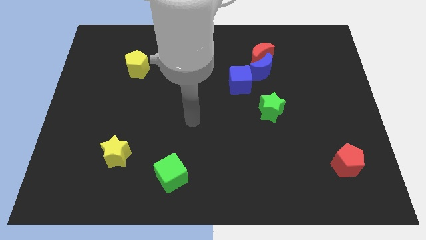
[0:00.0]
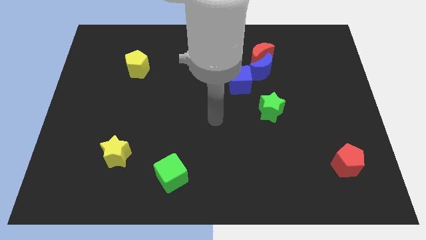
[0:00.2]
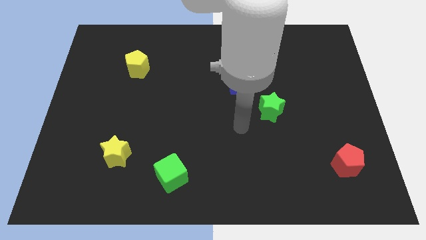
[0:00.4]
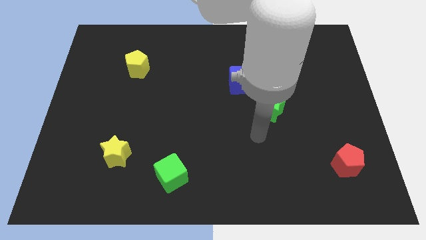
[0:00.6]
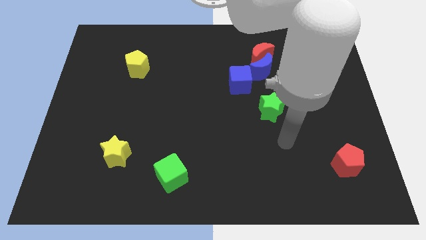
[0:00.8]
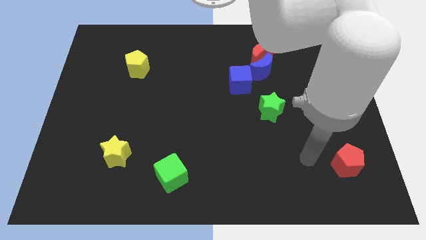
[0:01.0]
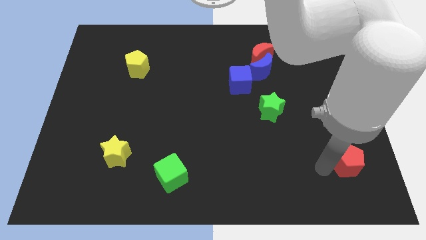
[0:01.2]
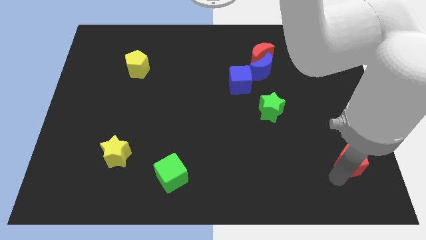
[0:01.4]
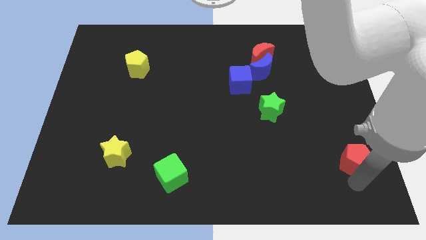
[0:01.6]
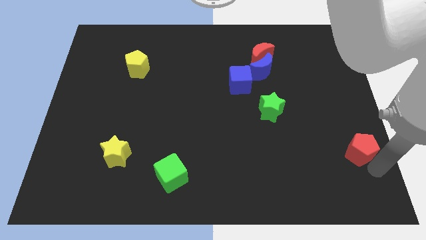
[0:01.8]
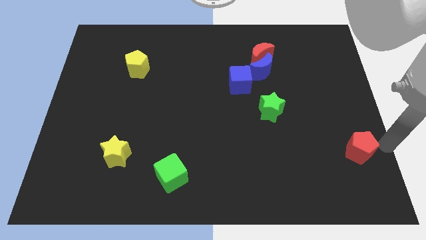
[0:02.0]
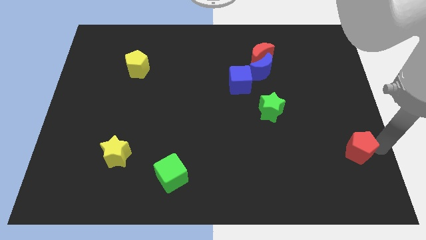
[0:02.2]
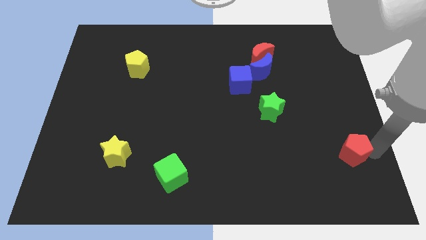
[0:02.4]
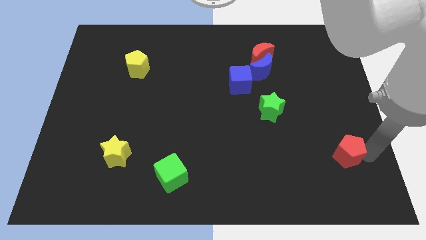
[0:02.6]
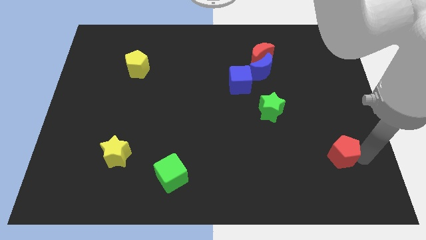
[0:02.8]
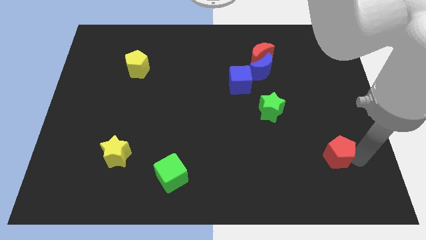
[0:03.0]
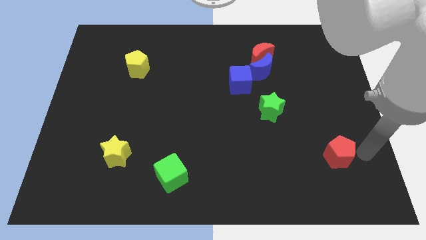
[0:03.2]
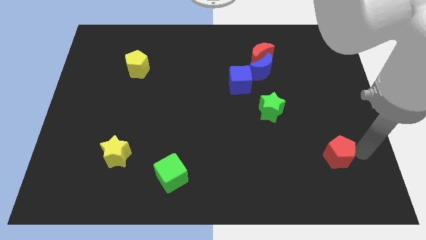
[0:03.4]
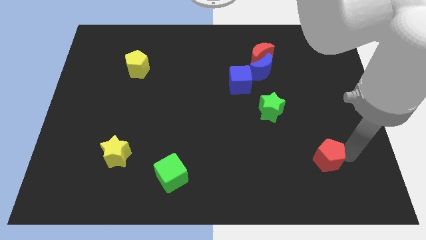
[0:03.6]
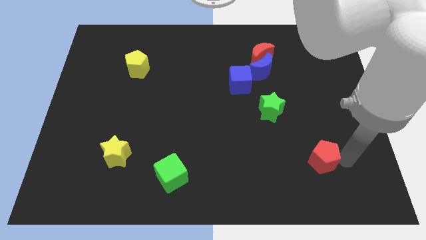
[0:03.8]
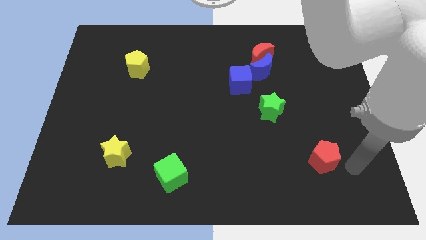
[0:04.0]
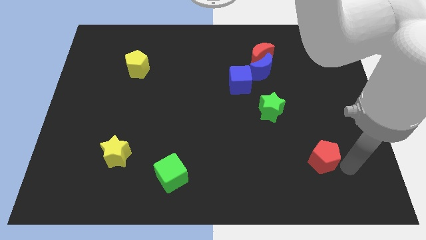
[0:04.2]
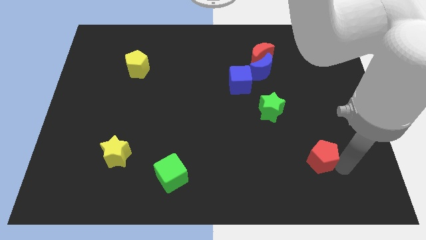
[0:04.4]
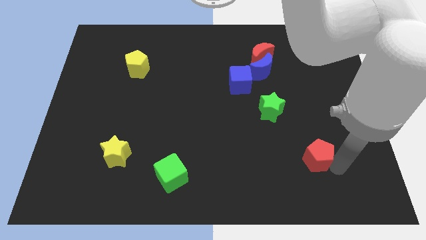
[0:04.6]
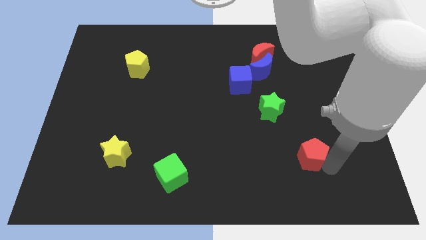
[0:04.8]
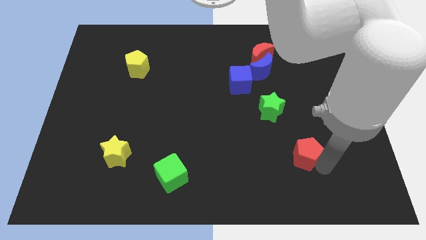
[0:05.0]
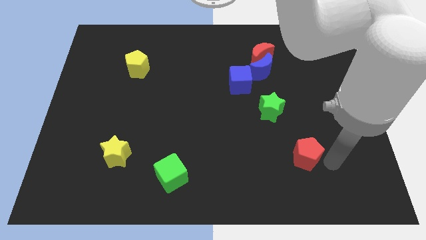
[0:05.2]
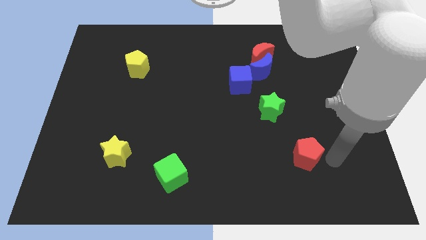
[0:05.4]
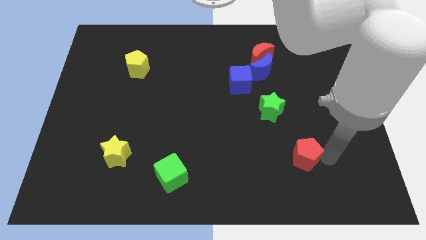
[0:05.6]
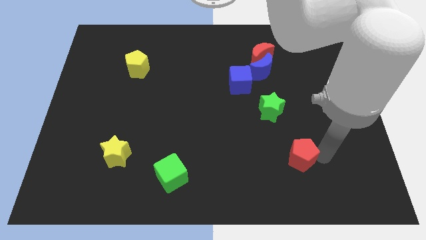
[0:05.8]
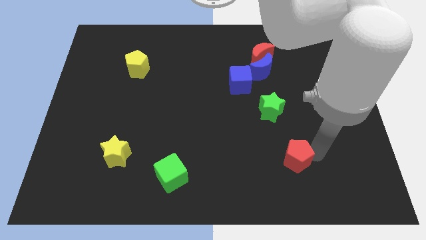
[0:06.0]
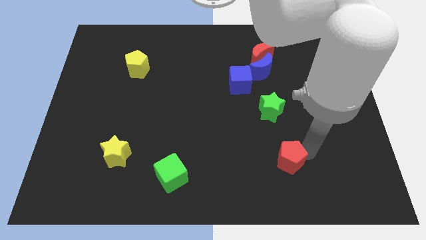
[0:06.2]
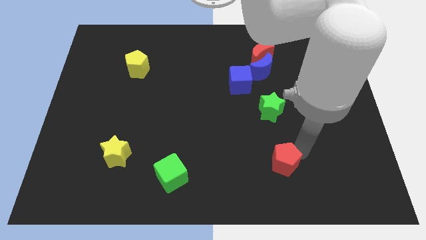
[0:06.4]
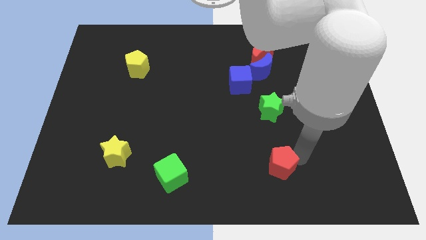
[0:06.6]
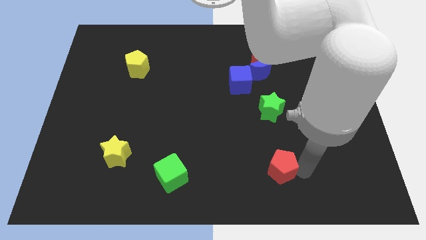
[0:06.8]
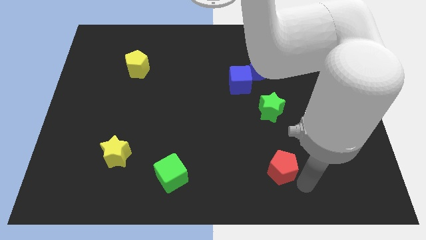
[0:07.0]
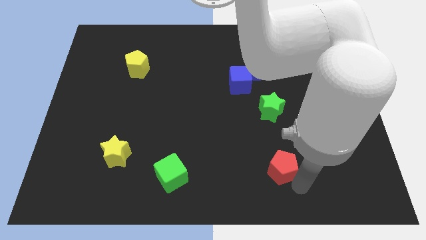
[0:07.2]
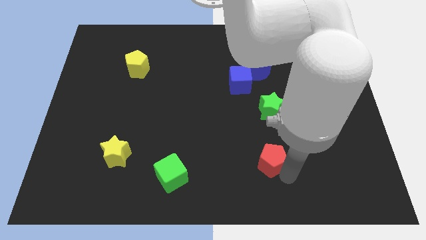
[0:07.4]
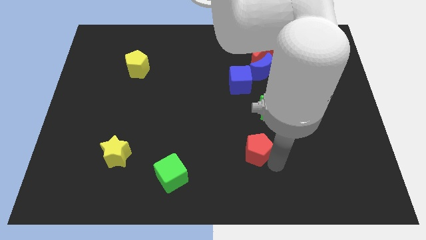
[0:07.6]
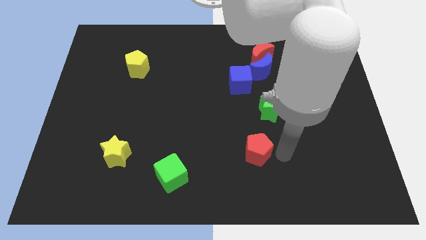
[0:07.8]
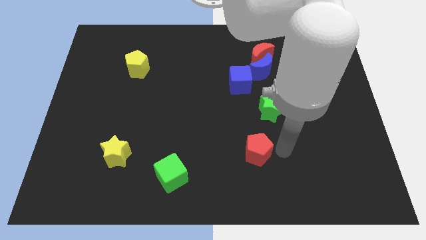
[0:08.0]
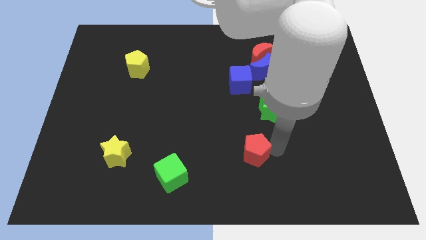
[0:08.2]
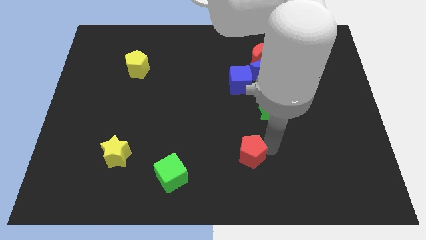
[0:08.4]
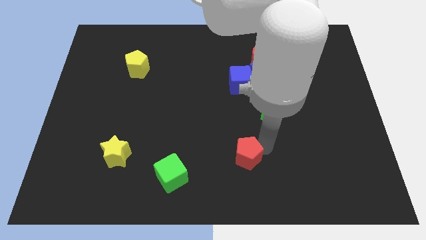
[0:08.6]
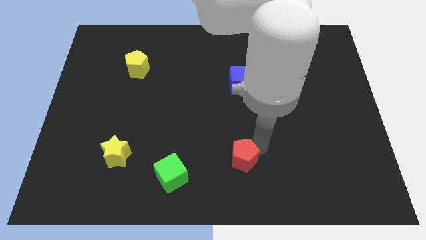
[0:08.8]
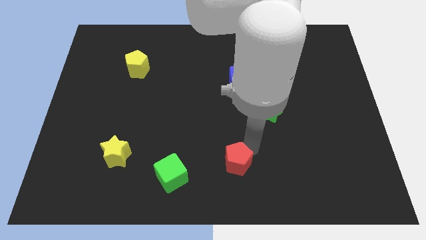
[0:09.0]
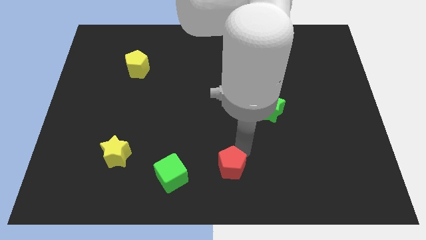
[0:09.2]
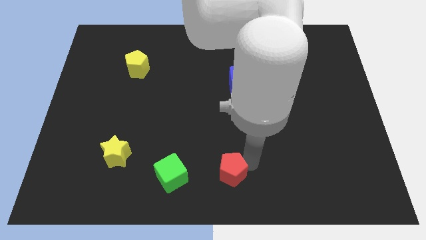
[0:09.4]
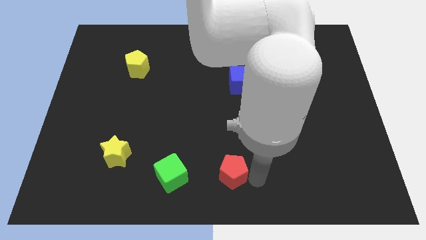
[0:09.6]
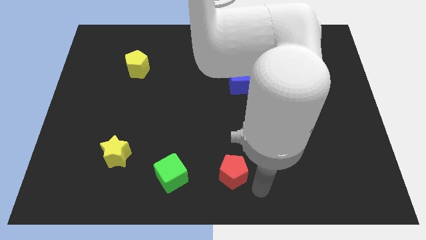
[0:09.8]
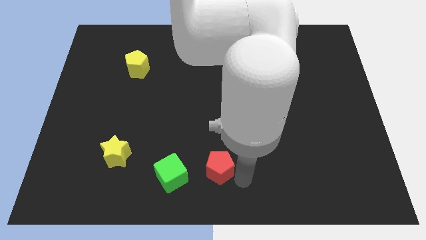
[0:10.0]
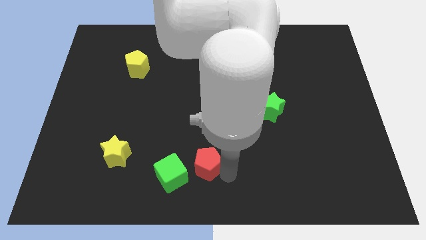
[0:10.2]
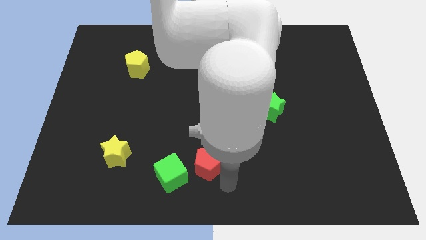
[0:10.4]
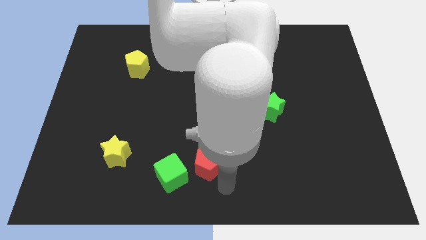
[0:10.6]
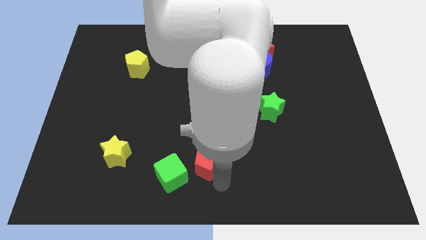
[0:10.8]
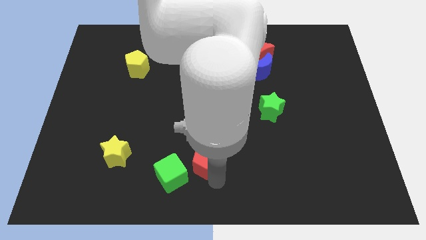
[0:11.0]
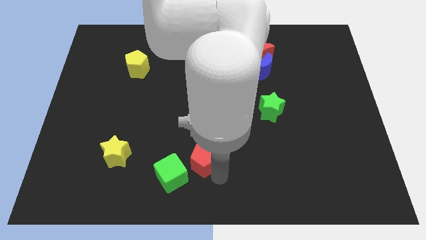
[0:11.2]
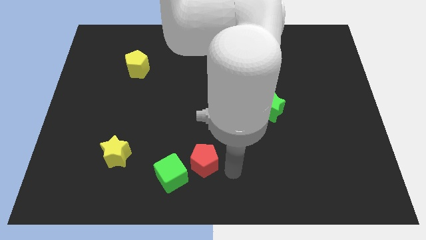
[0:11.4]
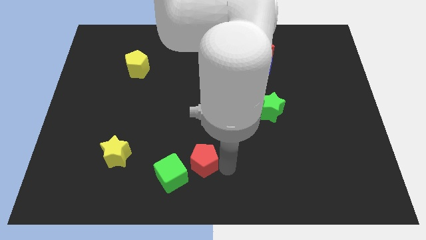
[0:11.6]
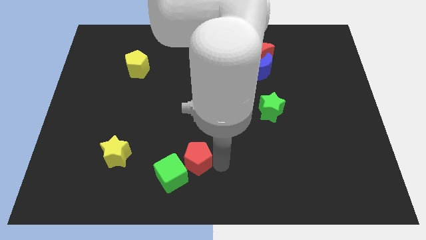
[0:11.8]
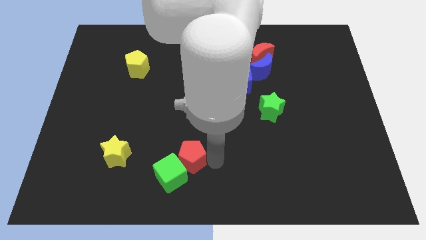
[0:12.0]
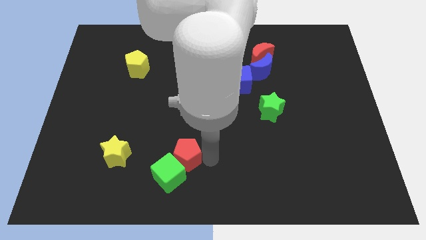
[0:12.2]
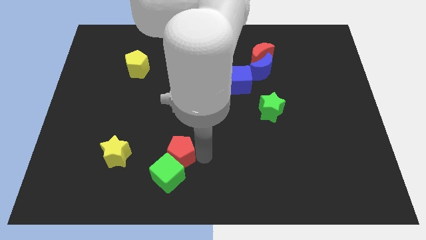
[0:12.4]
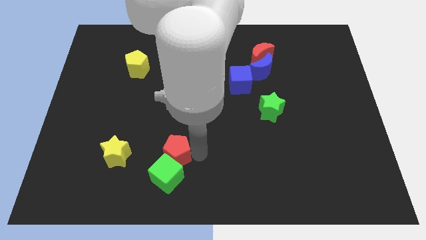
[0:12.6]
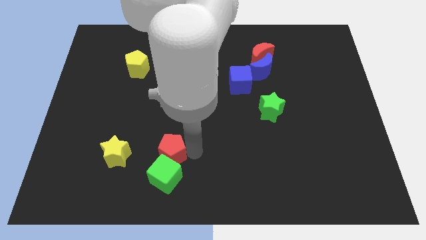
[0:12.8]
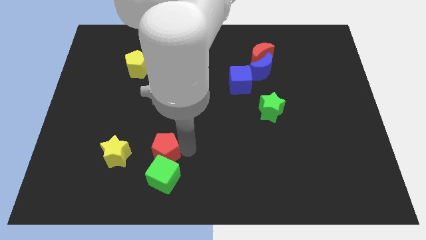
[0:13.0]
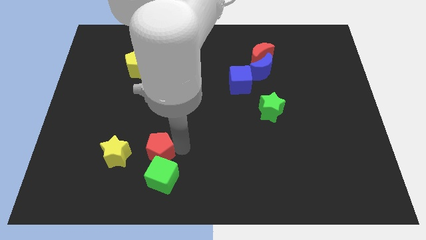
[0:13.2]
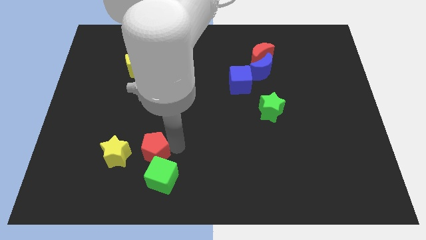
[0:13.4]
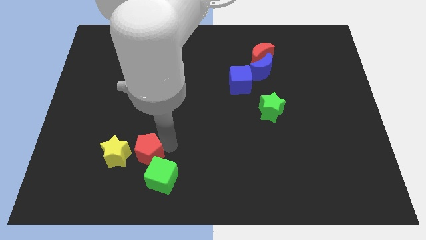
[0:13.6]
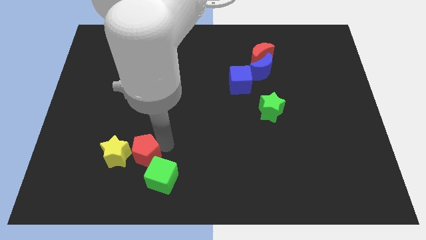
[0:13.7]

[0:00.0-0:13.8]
move the red pentagon next to the yellow star
